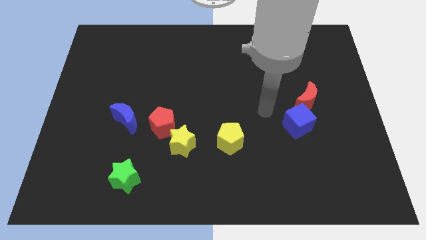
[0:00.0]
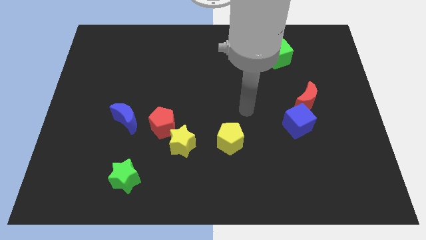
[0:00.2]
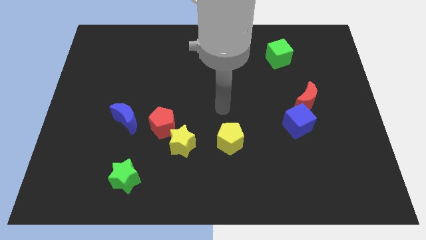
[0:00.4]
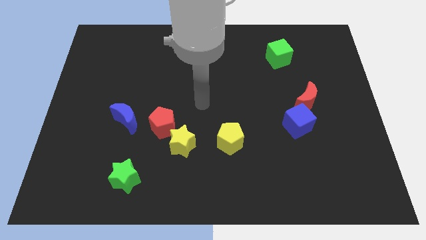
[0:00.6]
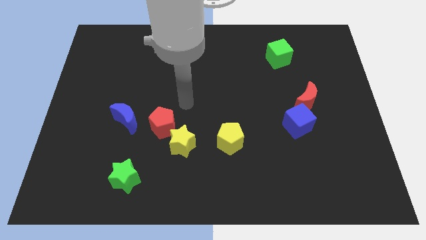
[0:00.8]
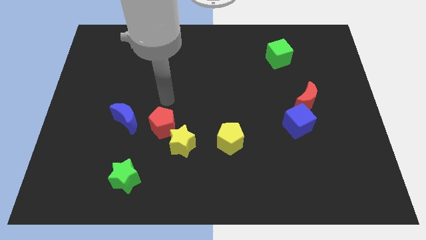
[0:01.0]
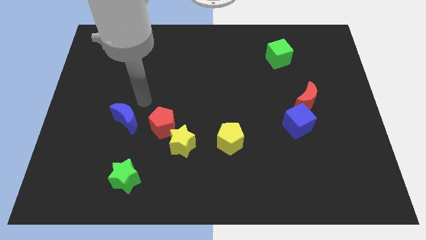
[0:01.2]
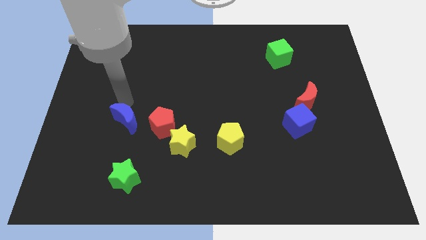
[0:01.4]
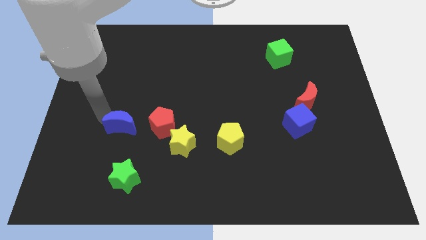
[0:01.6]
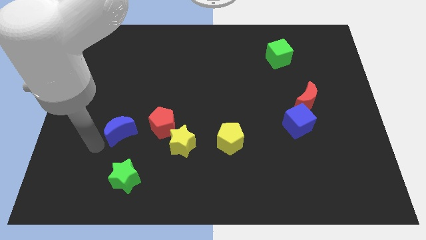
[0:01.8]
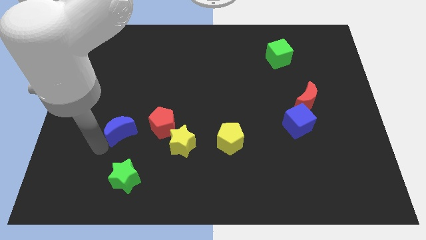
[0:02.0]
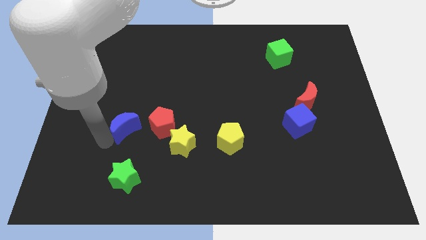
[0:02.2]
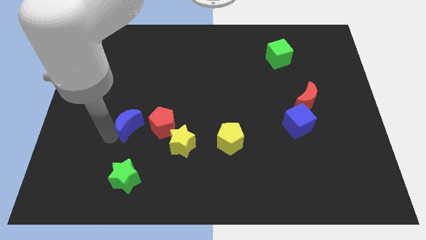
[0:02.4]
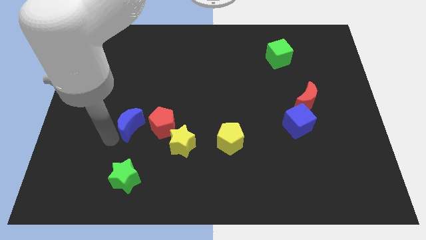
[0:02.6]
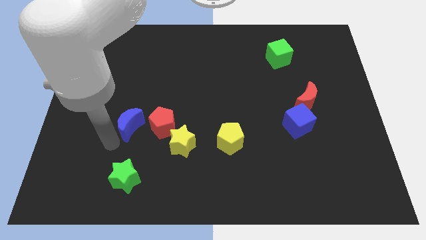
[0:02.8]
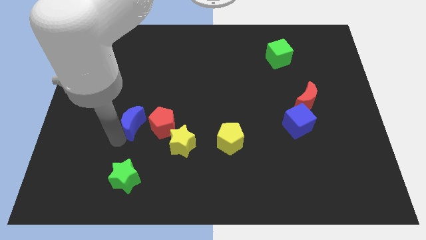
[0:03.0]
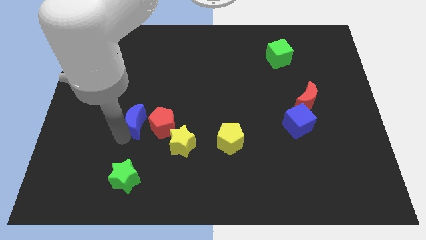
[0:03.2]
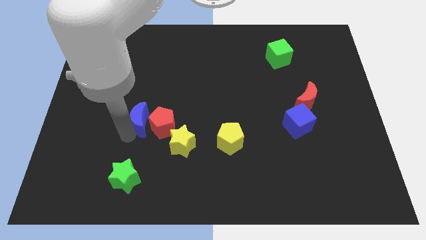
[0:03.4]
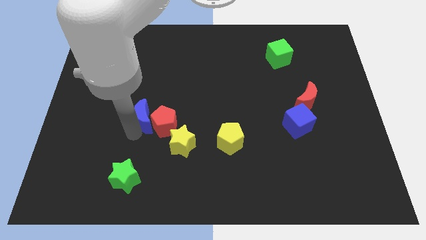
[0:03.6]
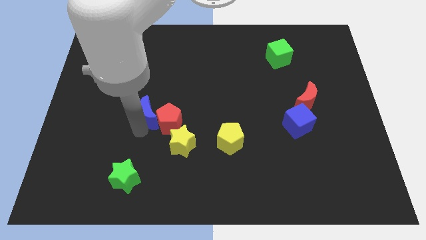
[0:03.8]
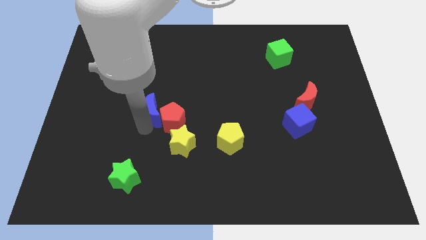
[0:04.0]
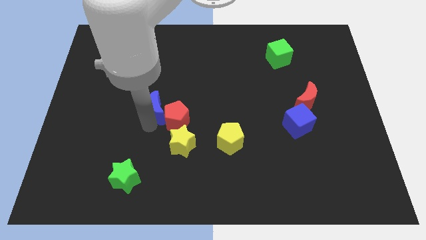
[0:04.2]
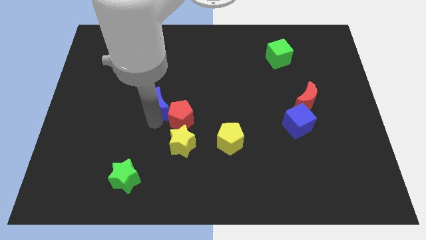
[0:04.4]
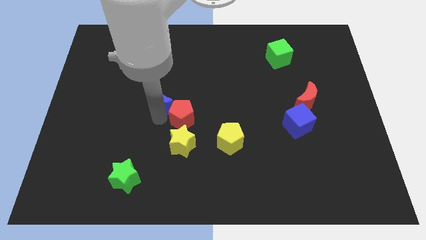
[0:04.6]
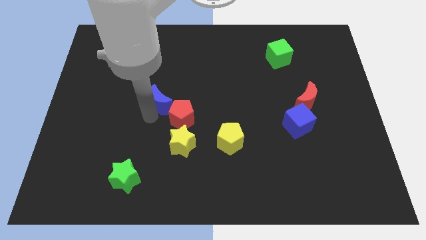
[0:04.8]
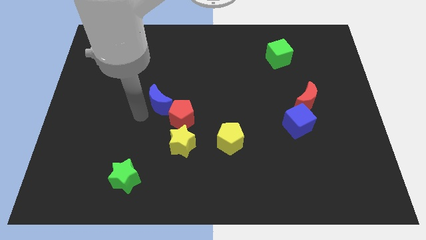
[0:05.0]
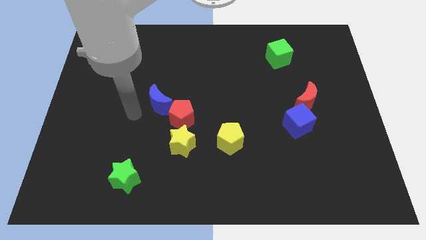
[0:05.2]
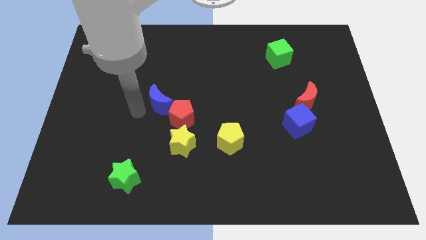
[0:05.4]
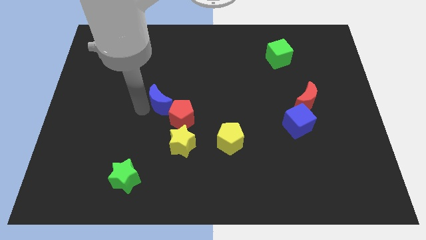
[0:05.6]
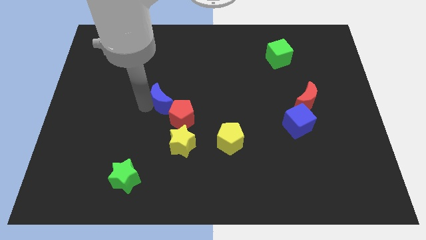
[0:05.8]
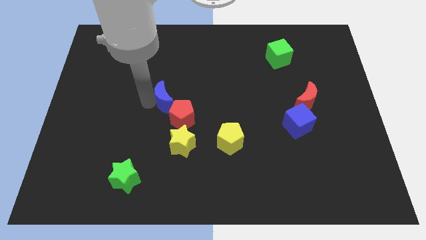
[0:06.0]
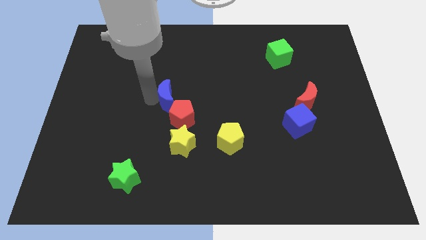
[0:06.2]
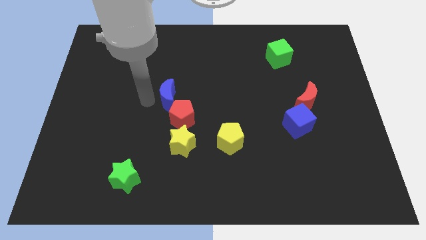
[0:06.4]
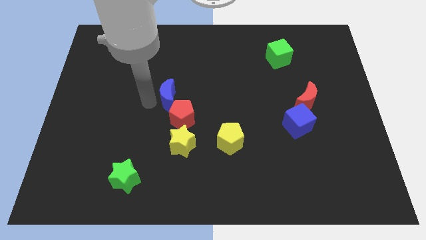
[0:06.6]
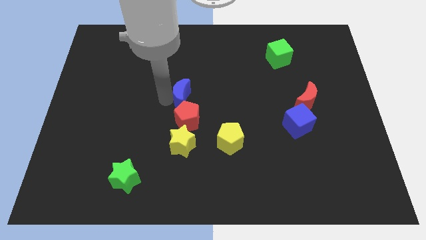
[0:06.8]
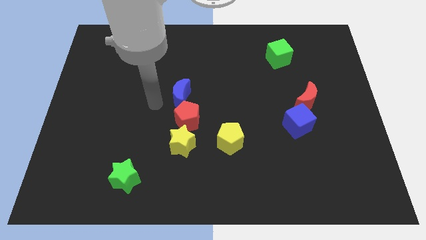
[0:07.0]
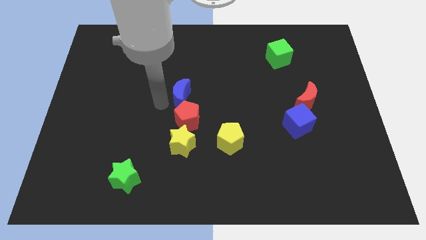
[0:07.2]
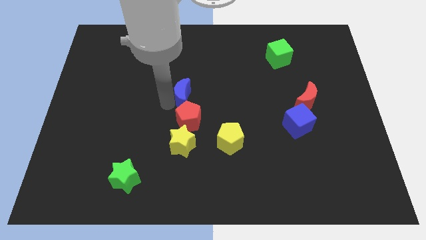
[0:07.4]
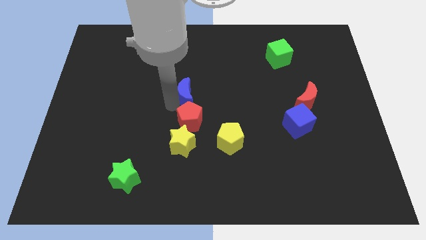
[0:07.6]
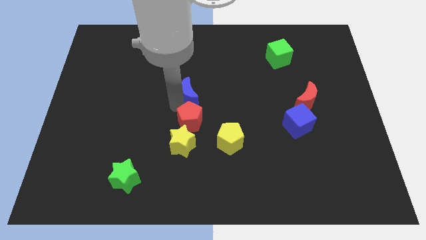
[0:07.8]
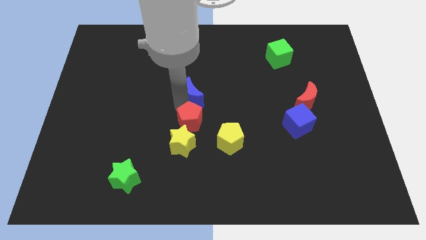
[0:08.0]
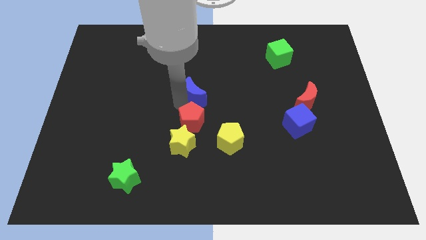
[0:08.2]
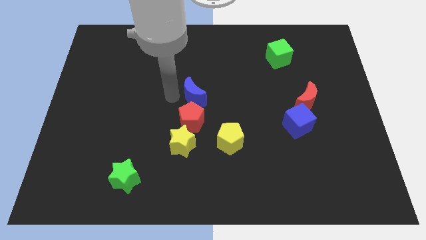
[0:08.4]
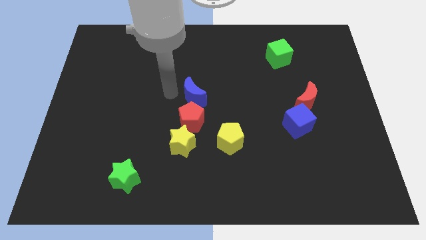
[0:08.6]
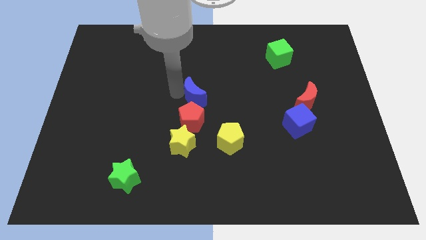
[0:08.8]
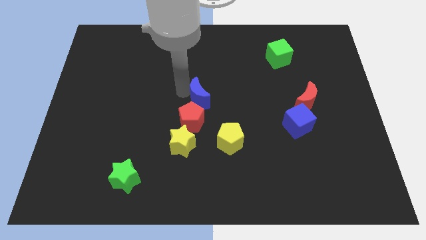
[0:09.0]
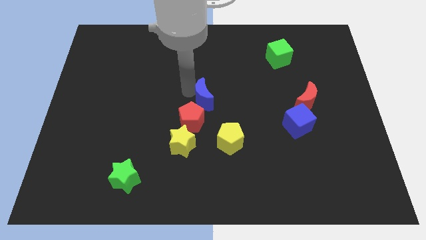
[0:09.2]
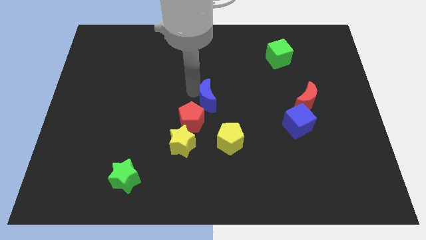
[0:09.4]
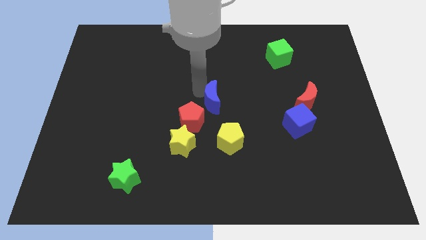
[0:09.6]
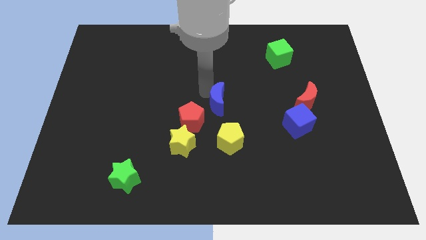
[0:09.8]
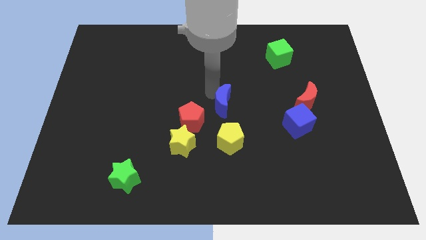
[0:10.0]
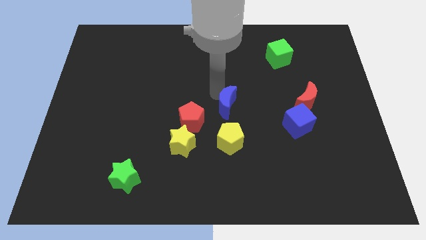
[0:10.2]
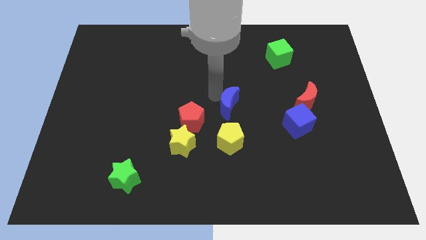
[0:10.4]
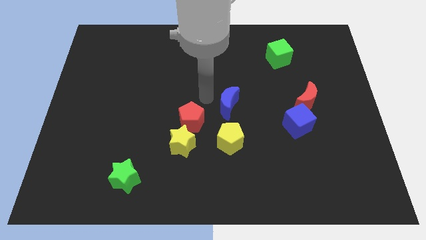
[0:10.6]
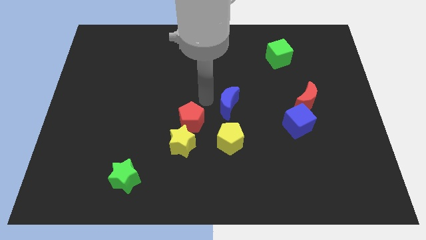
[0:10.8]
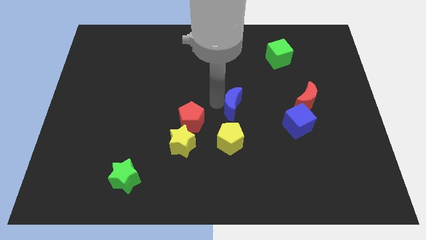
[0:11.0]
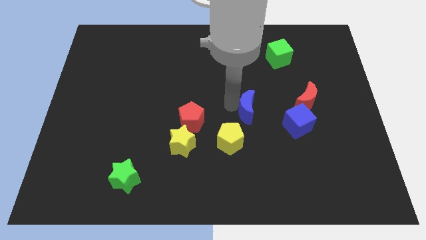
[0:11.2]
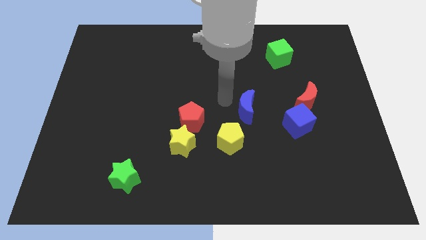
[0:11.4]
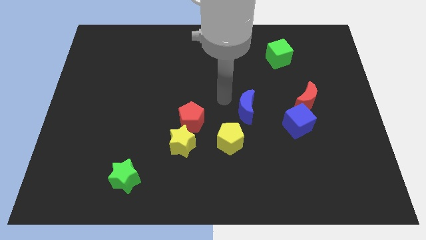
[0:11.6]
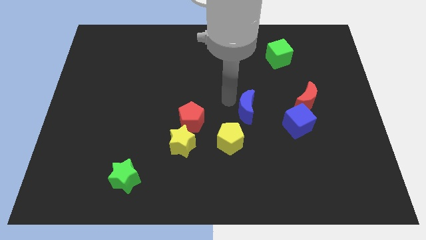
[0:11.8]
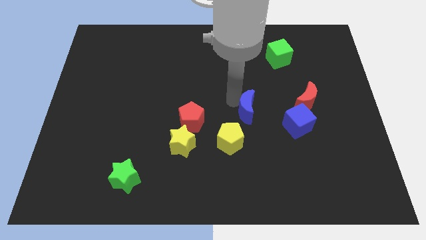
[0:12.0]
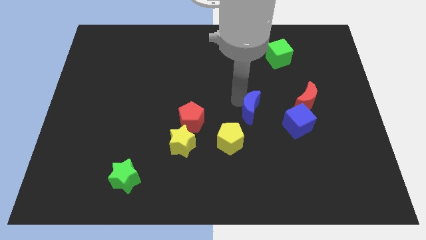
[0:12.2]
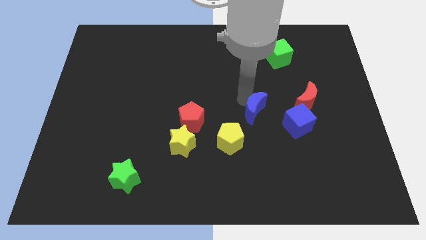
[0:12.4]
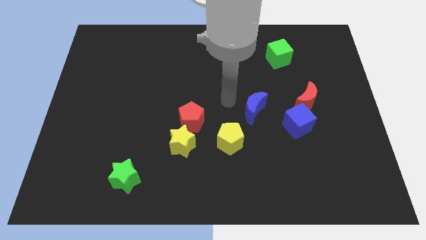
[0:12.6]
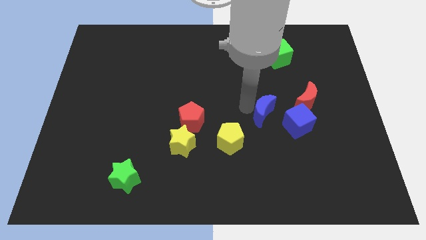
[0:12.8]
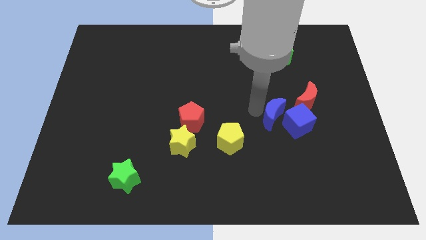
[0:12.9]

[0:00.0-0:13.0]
slide the blue moon close to the blue cube

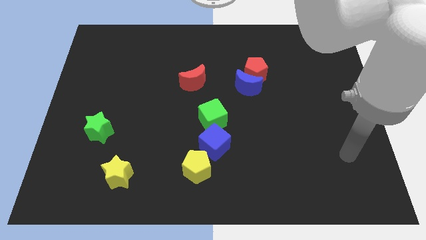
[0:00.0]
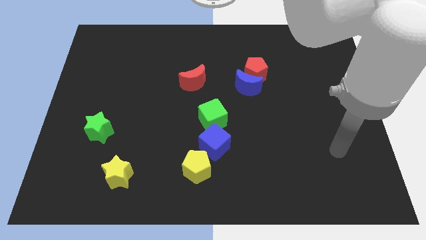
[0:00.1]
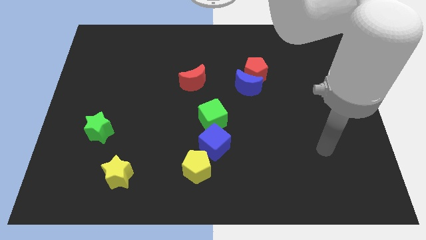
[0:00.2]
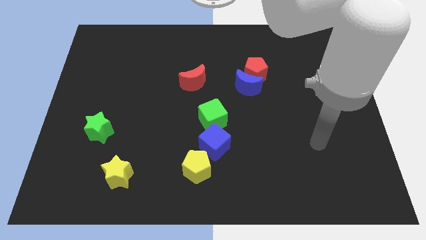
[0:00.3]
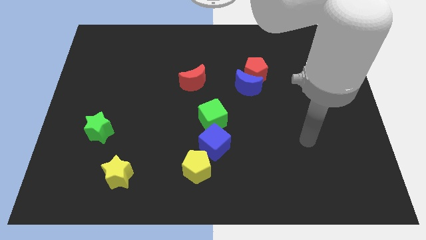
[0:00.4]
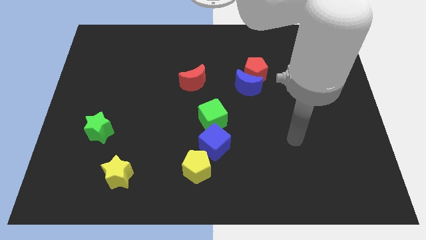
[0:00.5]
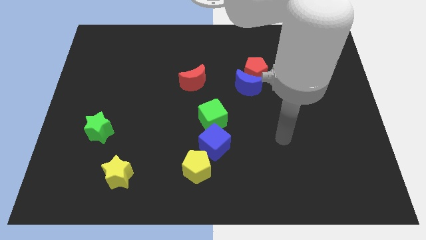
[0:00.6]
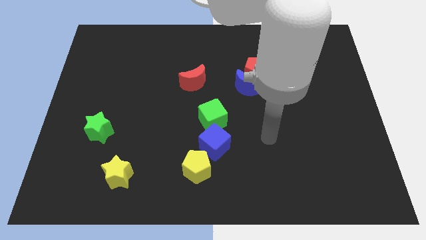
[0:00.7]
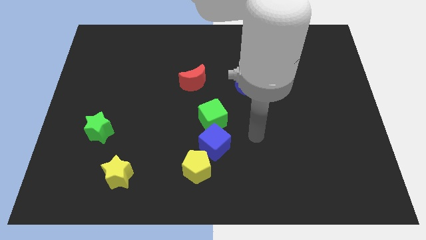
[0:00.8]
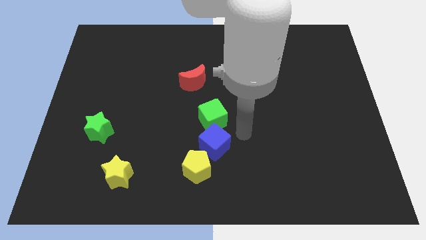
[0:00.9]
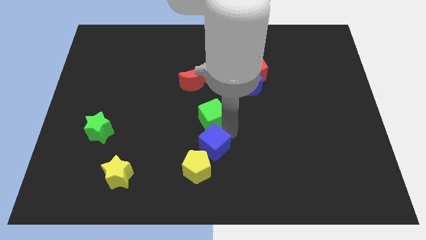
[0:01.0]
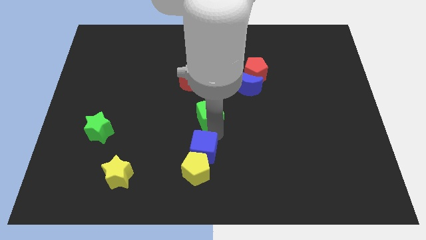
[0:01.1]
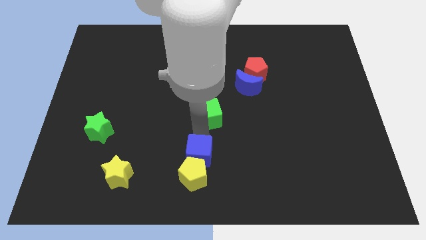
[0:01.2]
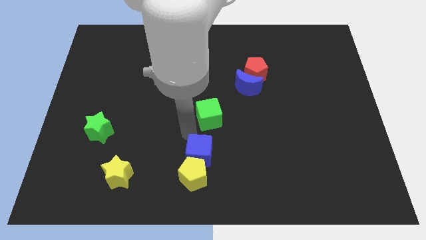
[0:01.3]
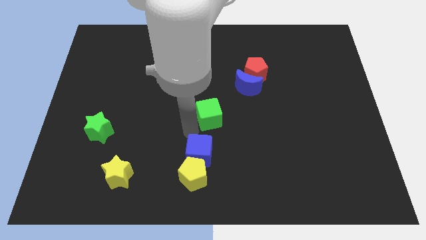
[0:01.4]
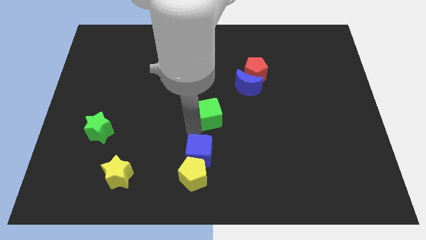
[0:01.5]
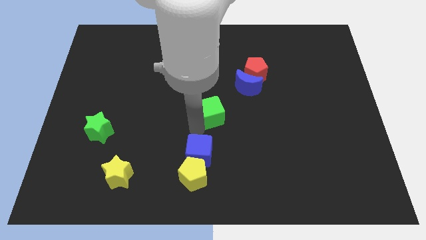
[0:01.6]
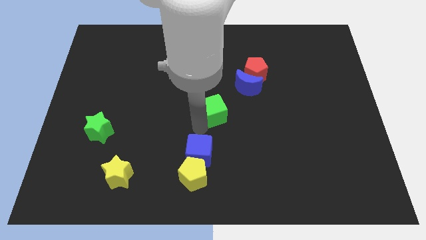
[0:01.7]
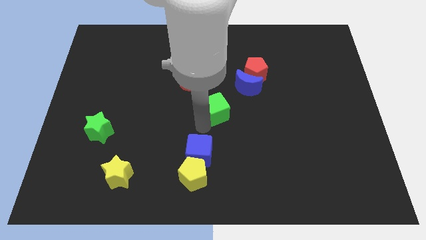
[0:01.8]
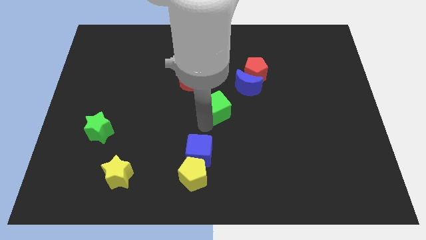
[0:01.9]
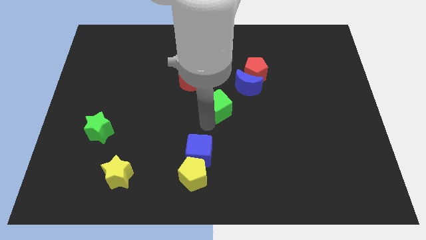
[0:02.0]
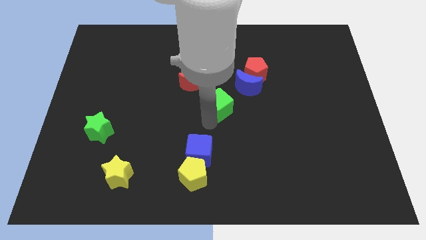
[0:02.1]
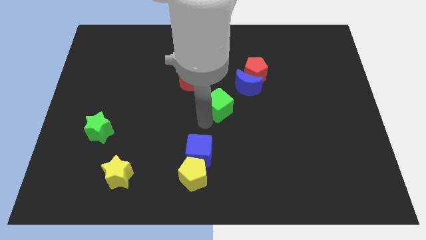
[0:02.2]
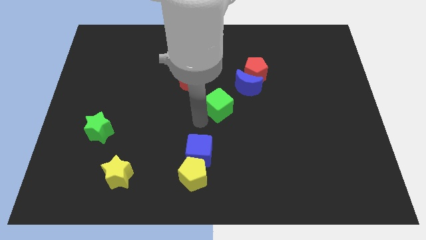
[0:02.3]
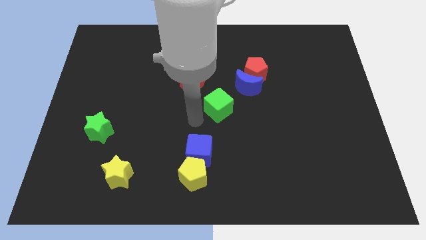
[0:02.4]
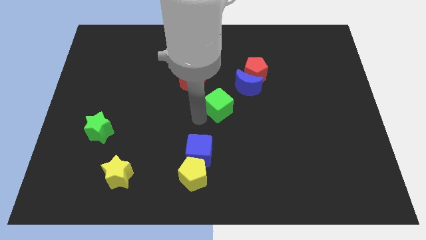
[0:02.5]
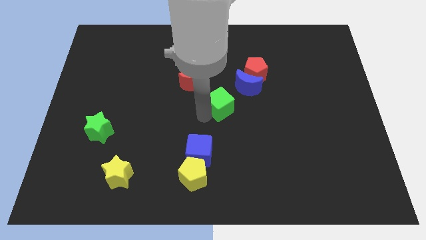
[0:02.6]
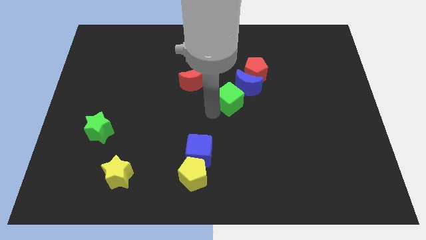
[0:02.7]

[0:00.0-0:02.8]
push the green cube next to the blue moon
